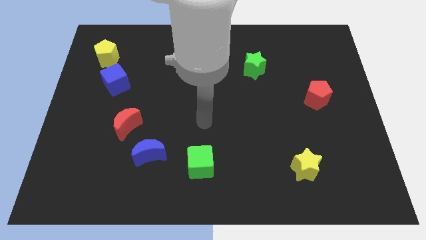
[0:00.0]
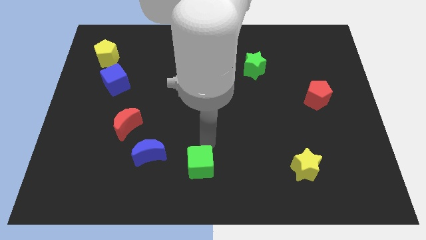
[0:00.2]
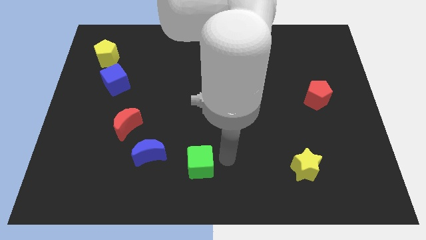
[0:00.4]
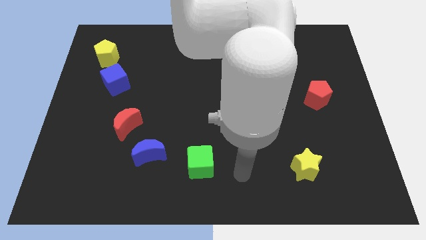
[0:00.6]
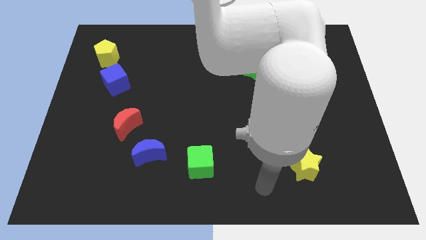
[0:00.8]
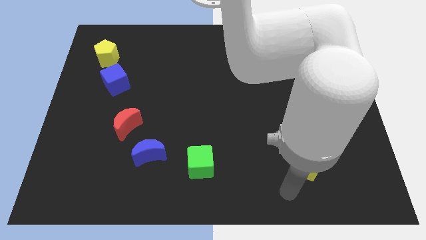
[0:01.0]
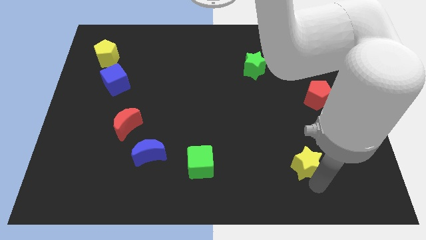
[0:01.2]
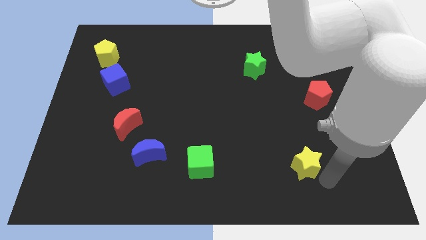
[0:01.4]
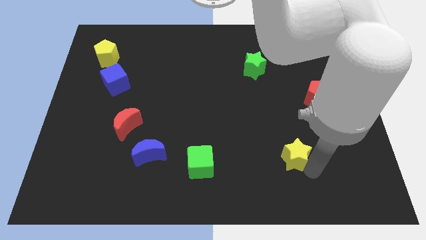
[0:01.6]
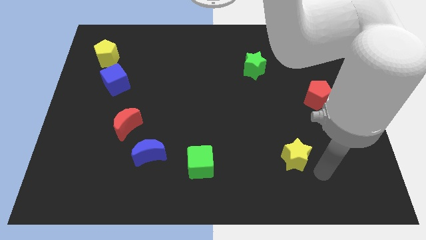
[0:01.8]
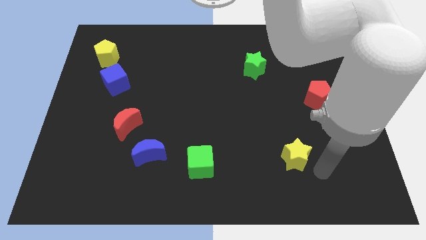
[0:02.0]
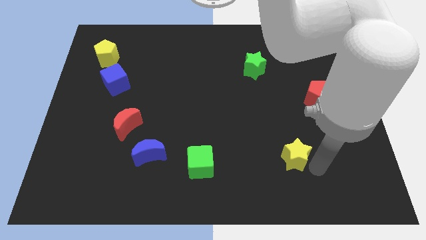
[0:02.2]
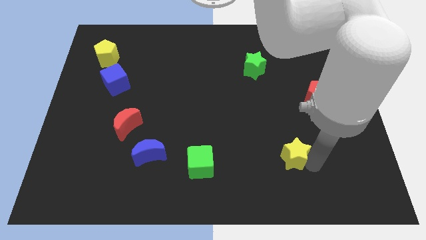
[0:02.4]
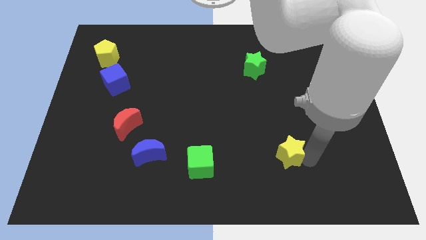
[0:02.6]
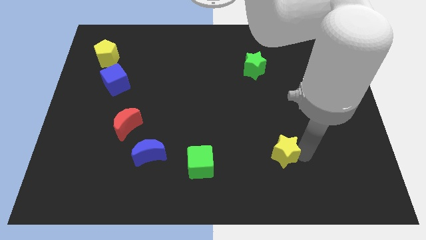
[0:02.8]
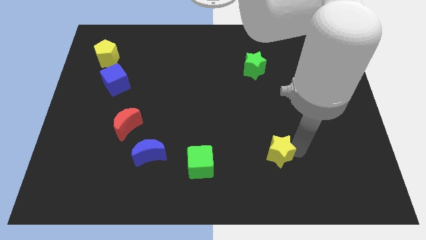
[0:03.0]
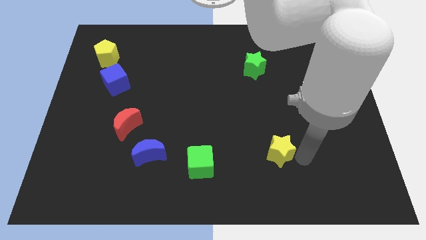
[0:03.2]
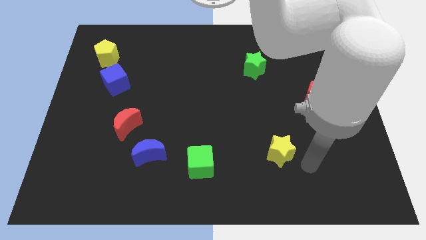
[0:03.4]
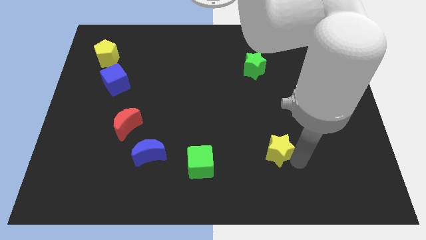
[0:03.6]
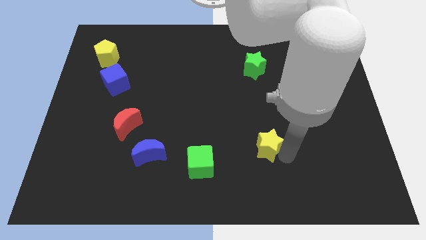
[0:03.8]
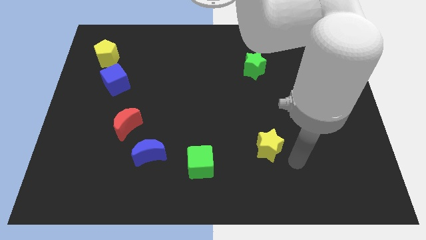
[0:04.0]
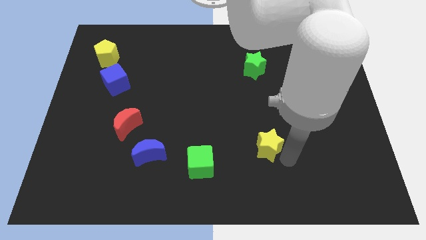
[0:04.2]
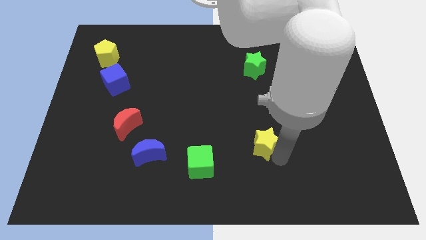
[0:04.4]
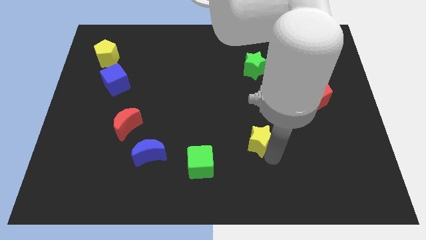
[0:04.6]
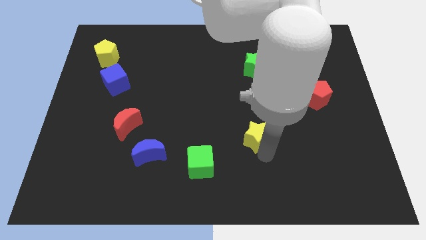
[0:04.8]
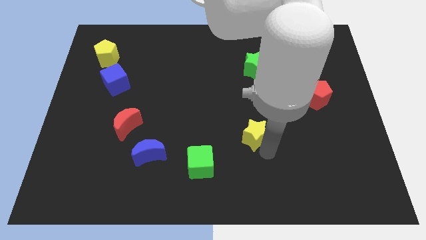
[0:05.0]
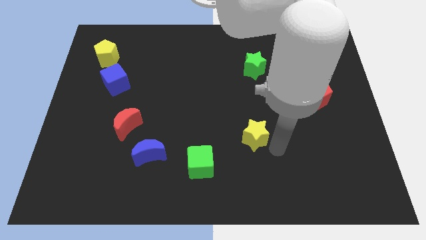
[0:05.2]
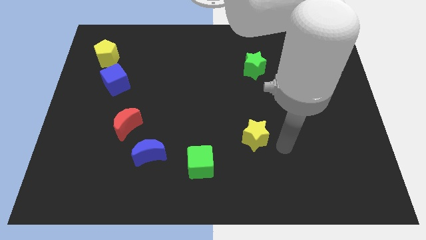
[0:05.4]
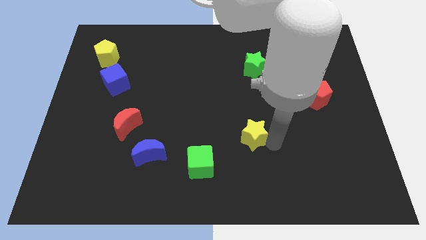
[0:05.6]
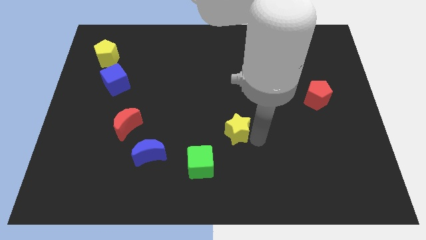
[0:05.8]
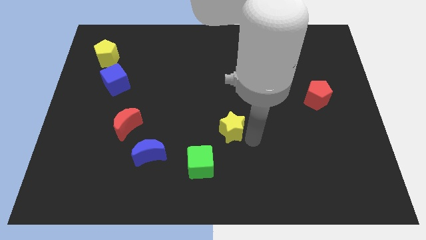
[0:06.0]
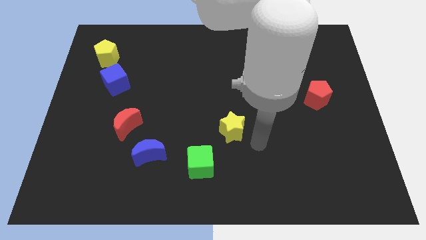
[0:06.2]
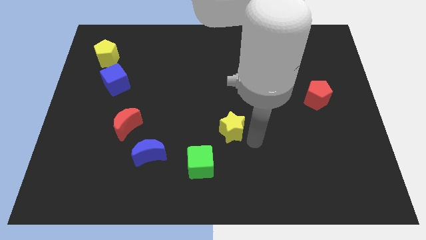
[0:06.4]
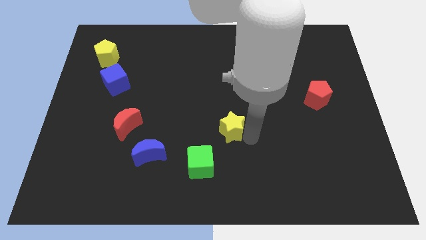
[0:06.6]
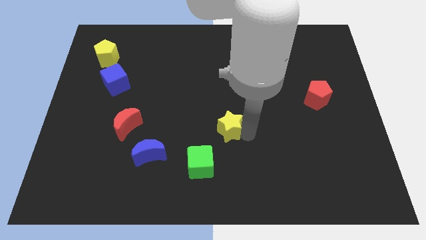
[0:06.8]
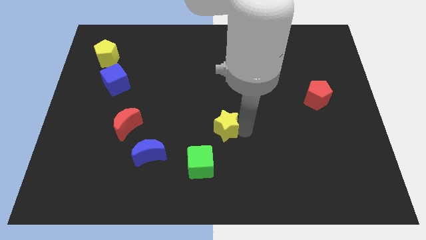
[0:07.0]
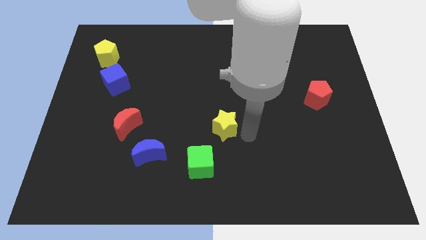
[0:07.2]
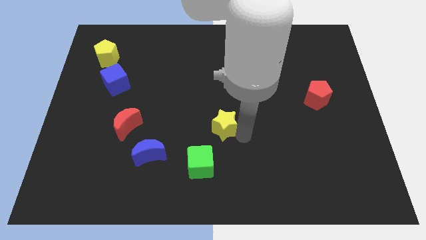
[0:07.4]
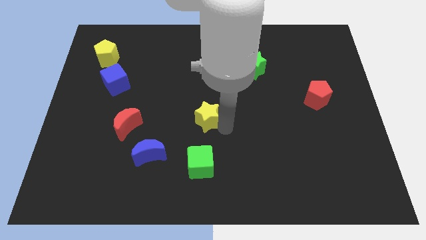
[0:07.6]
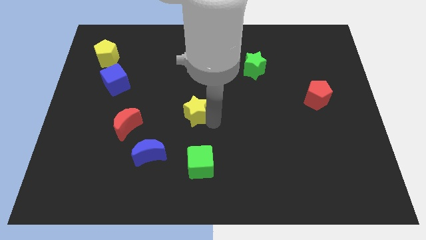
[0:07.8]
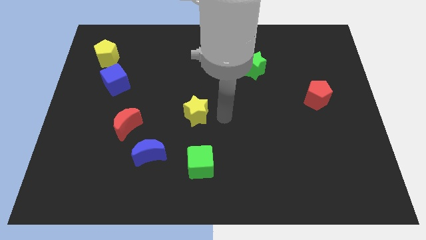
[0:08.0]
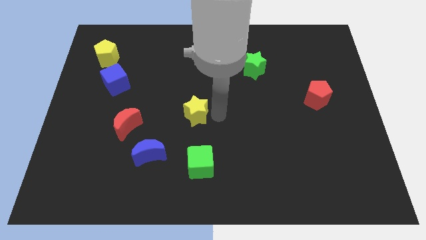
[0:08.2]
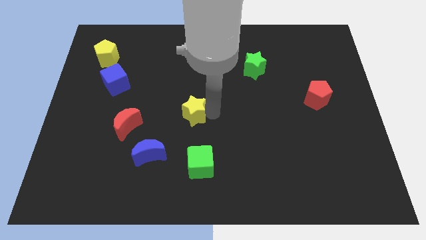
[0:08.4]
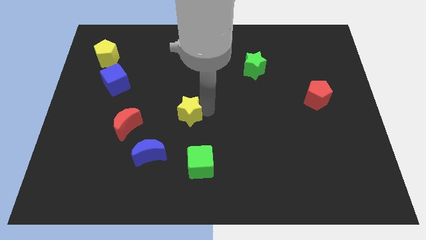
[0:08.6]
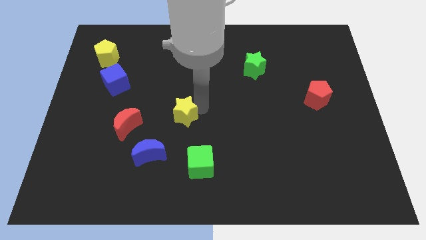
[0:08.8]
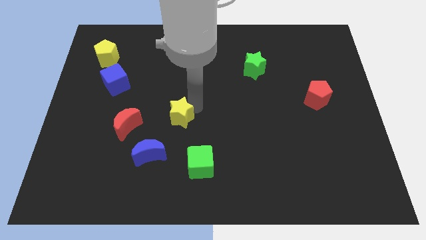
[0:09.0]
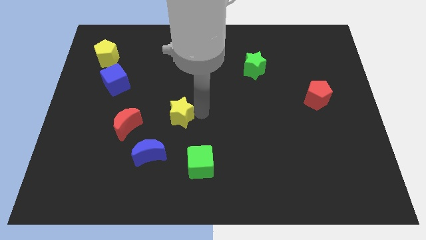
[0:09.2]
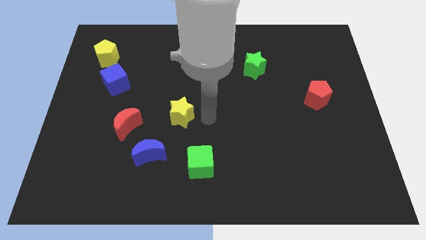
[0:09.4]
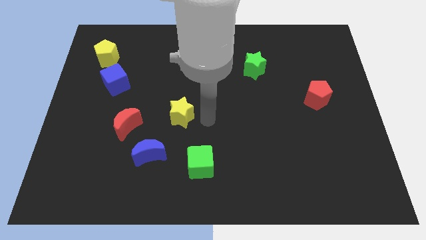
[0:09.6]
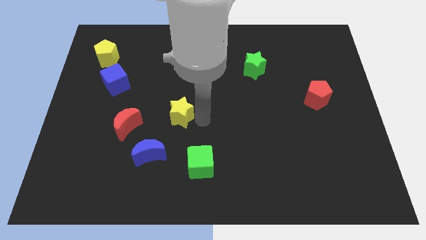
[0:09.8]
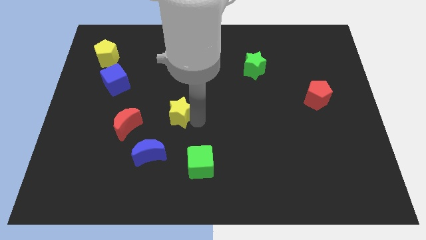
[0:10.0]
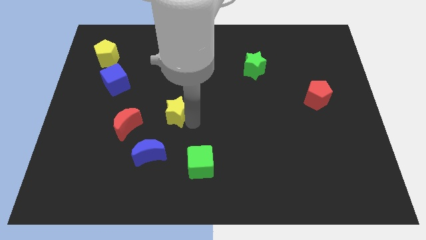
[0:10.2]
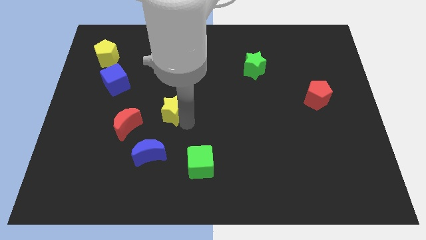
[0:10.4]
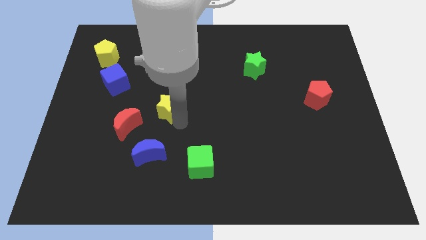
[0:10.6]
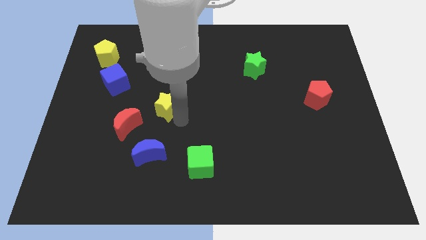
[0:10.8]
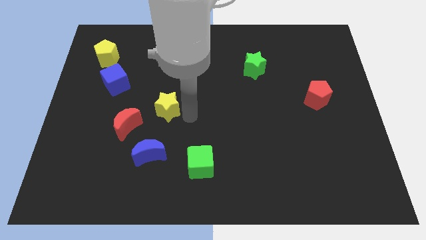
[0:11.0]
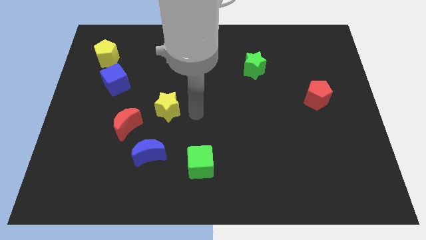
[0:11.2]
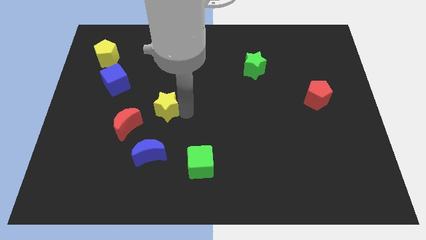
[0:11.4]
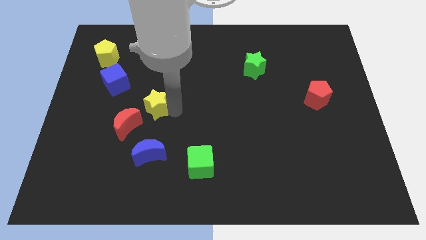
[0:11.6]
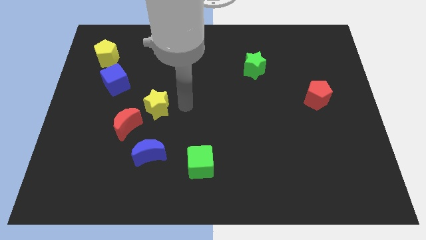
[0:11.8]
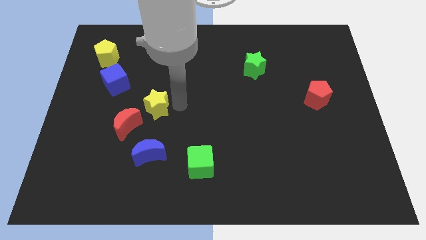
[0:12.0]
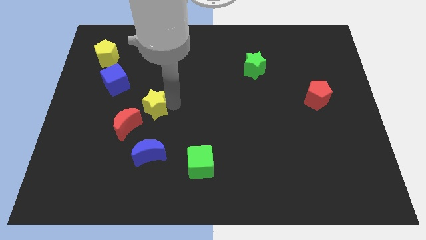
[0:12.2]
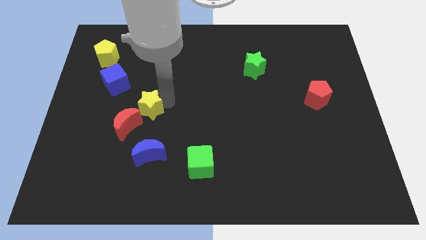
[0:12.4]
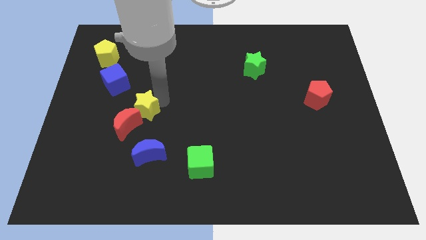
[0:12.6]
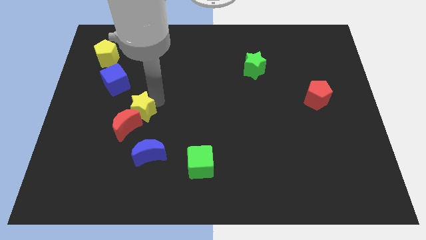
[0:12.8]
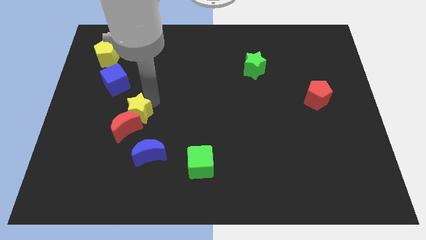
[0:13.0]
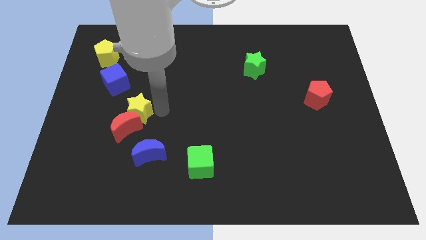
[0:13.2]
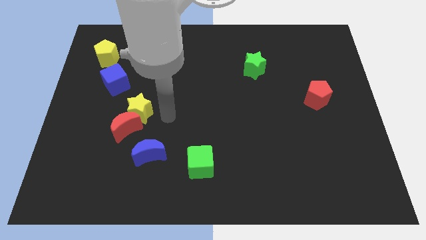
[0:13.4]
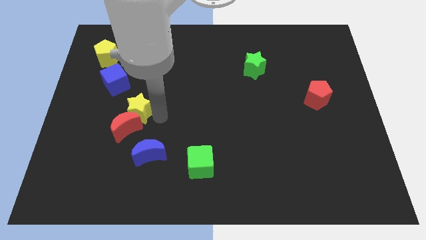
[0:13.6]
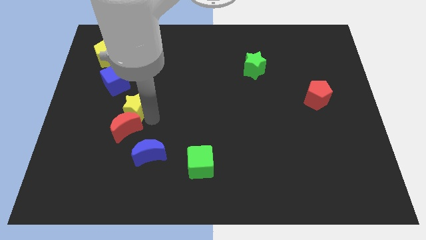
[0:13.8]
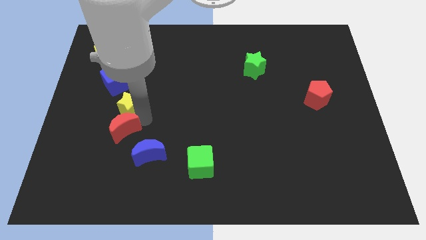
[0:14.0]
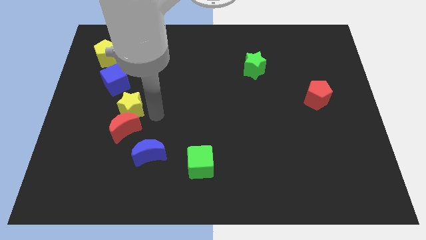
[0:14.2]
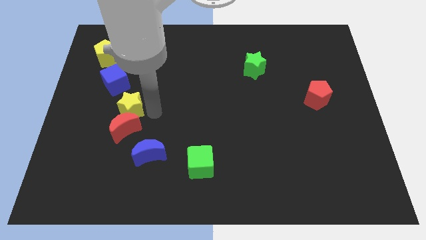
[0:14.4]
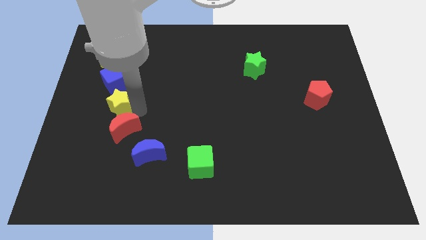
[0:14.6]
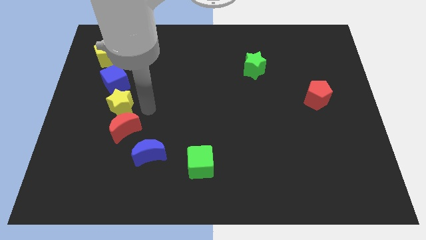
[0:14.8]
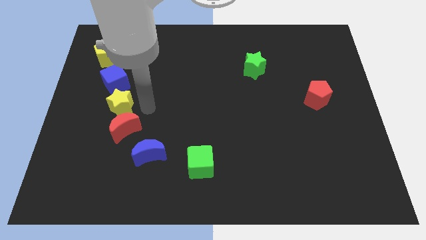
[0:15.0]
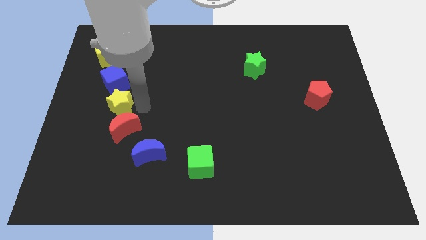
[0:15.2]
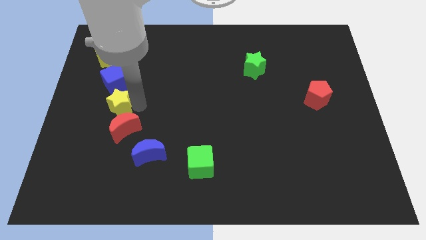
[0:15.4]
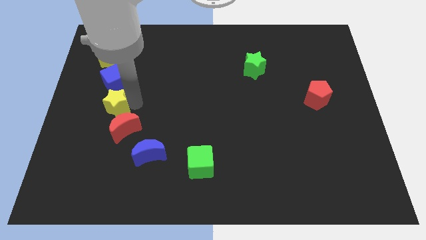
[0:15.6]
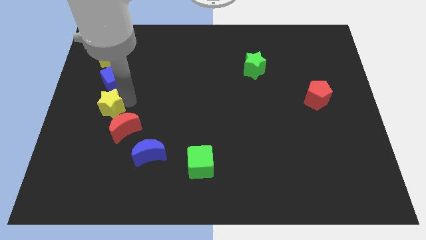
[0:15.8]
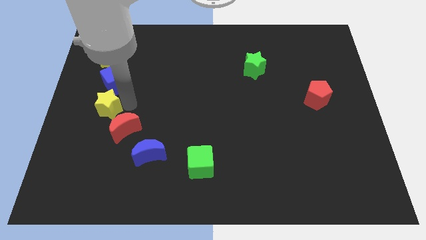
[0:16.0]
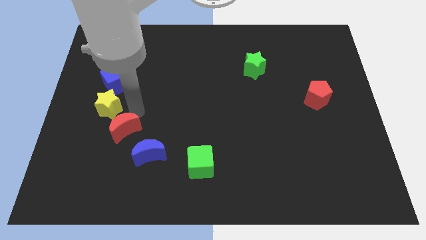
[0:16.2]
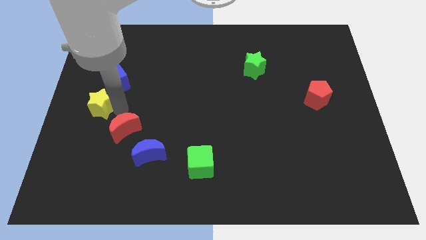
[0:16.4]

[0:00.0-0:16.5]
move the yellow star to the left side of the board
